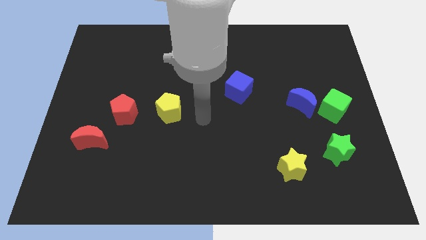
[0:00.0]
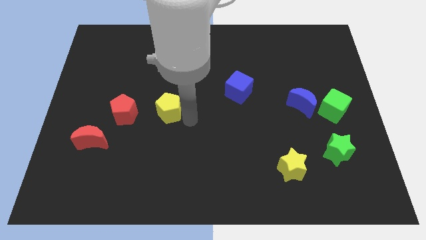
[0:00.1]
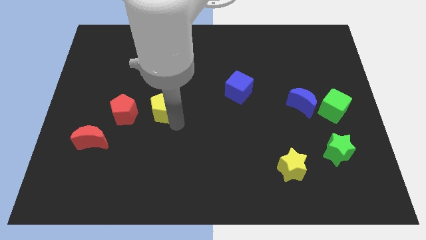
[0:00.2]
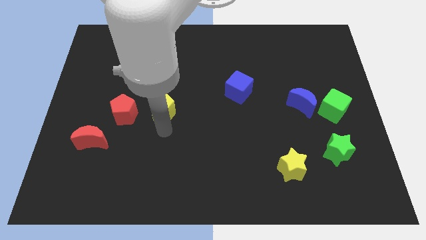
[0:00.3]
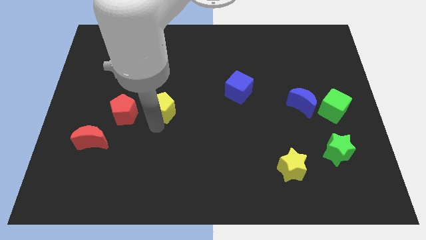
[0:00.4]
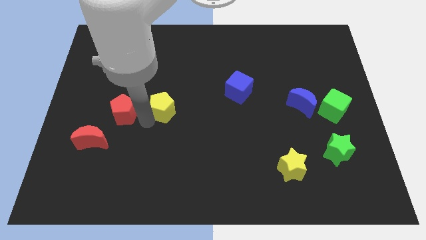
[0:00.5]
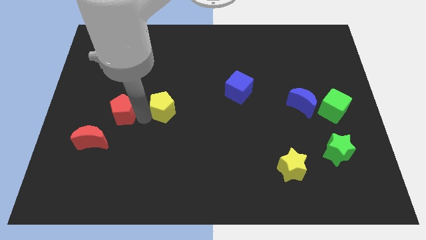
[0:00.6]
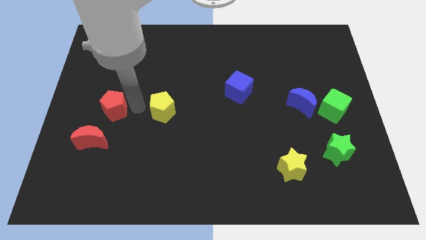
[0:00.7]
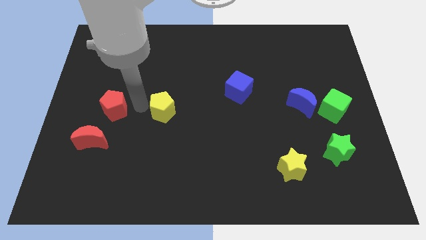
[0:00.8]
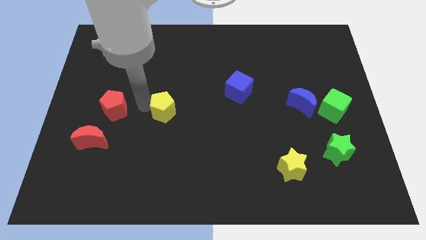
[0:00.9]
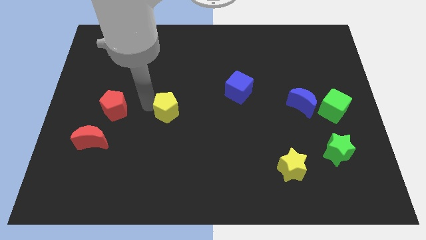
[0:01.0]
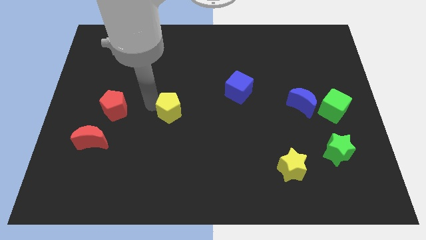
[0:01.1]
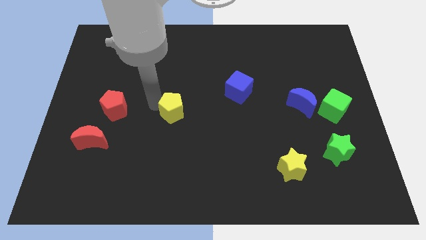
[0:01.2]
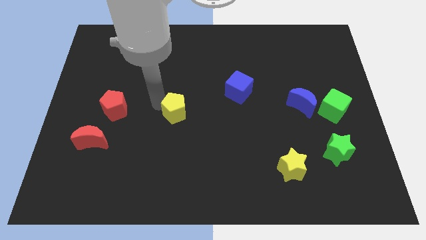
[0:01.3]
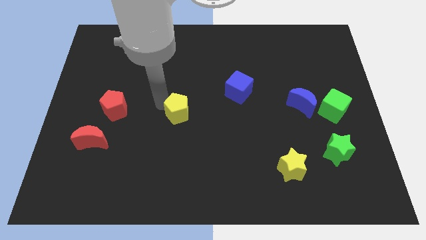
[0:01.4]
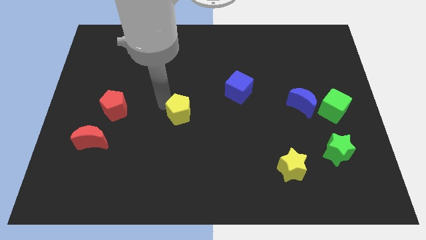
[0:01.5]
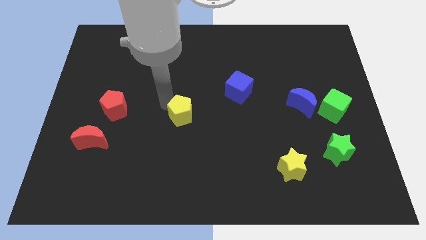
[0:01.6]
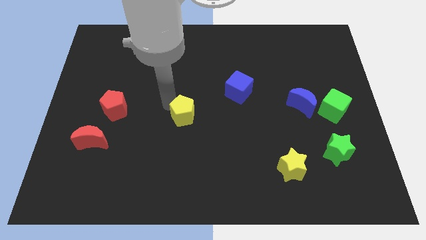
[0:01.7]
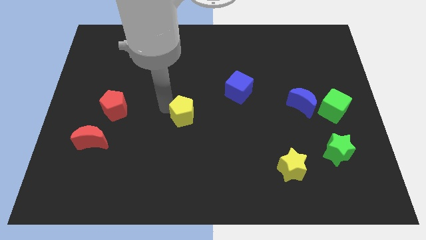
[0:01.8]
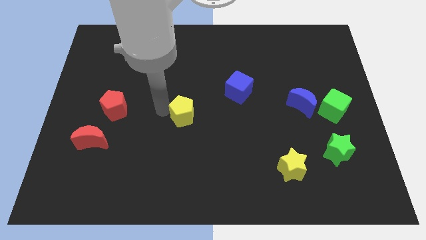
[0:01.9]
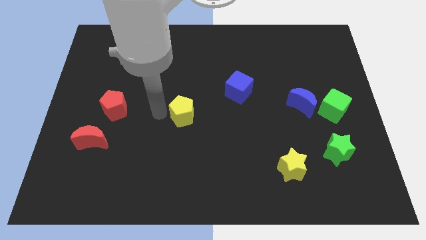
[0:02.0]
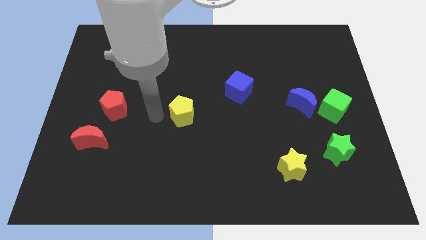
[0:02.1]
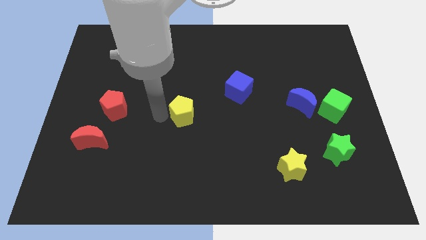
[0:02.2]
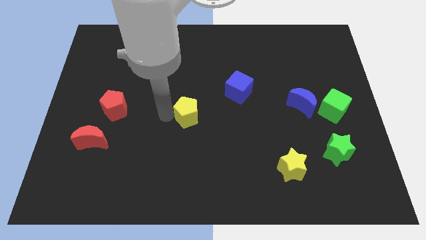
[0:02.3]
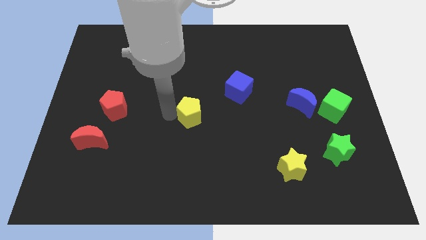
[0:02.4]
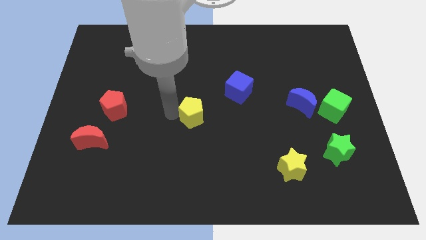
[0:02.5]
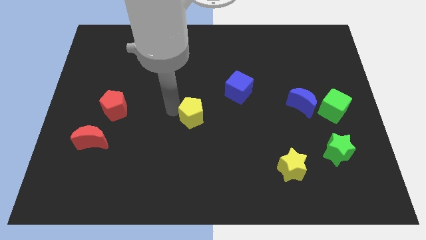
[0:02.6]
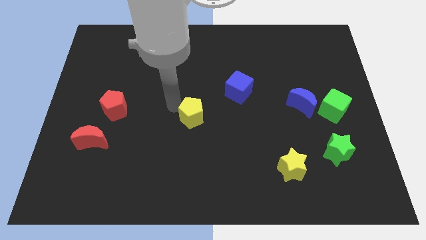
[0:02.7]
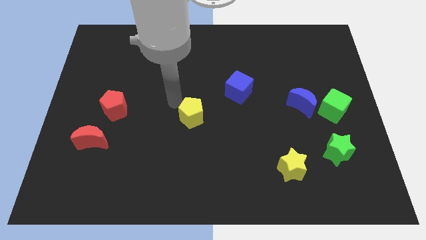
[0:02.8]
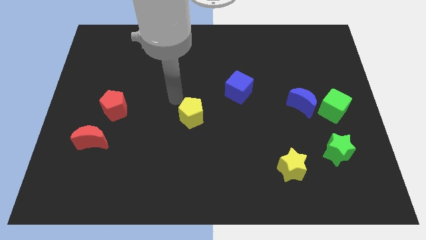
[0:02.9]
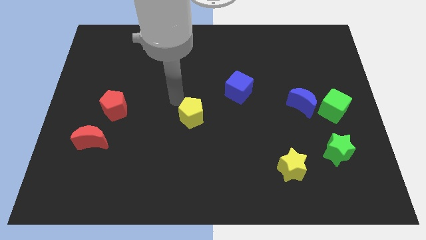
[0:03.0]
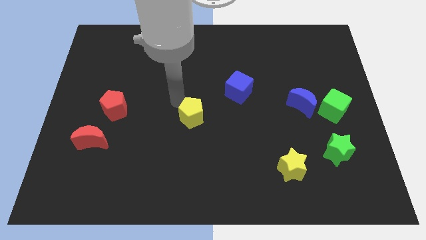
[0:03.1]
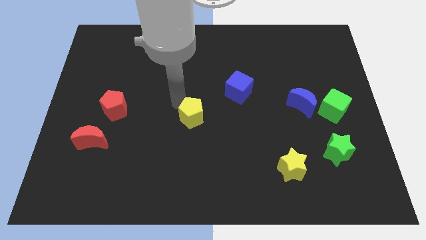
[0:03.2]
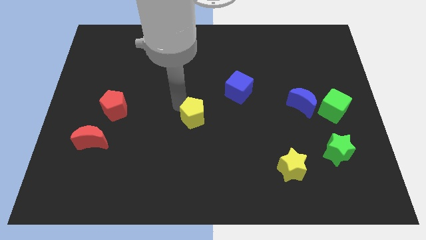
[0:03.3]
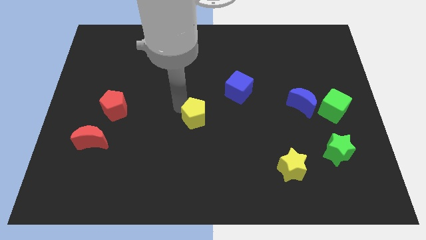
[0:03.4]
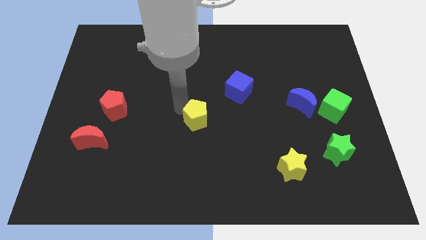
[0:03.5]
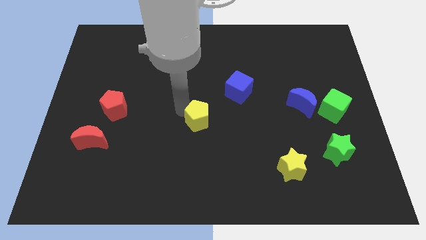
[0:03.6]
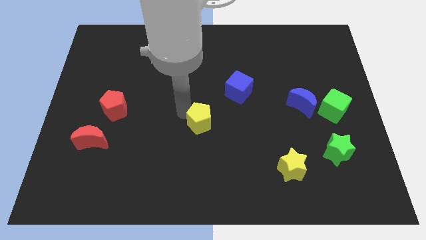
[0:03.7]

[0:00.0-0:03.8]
slightly slide the yellow pentagon down and right diagonally

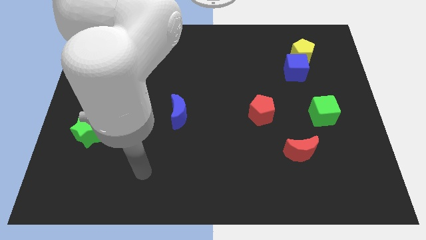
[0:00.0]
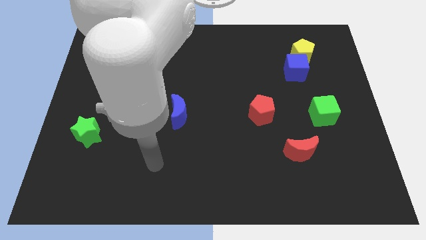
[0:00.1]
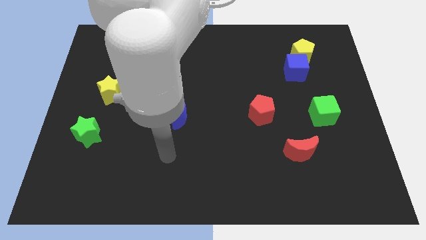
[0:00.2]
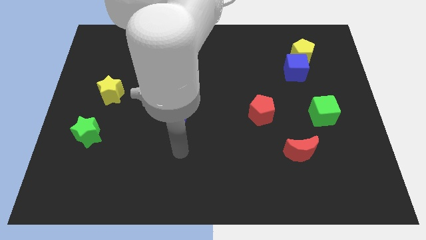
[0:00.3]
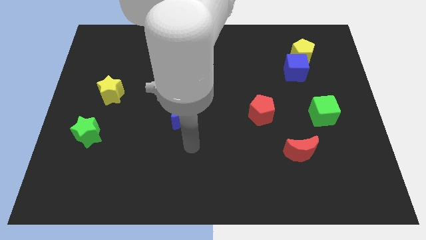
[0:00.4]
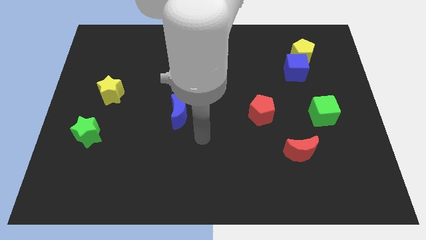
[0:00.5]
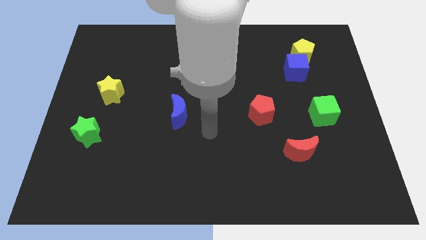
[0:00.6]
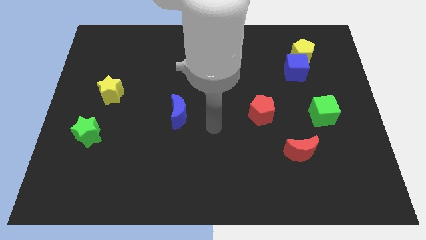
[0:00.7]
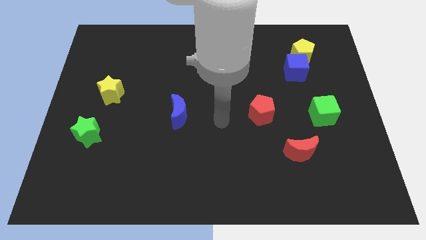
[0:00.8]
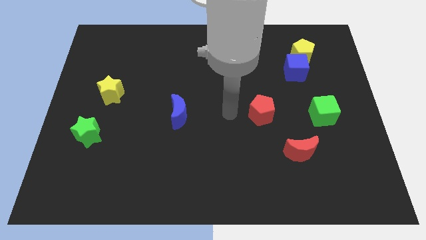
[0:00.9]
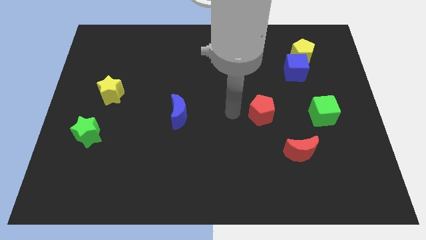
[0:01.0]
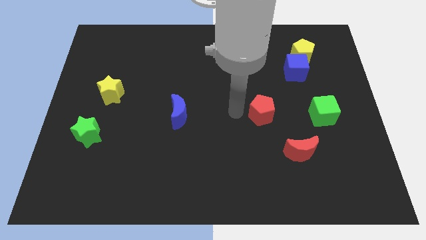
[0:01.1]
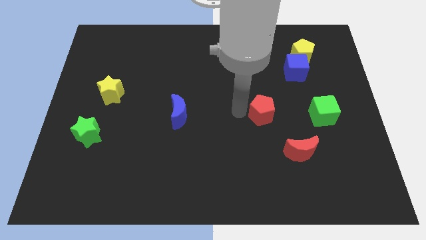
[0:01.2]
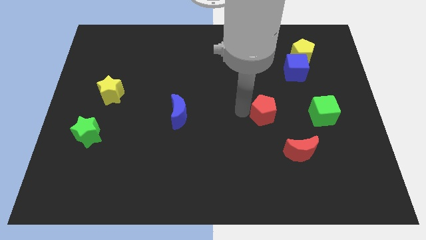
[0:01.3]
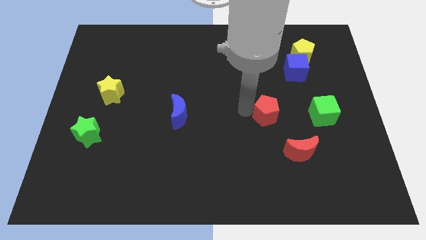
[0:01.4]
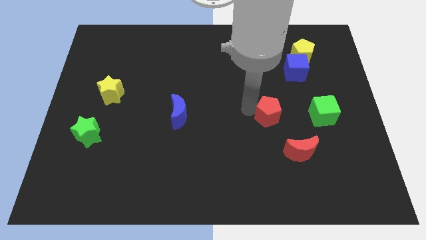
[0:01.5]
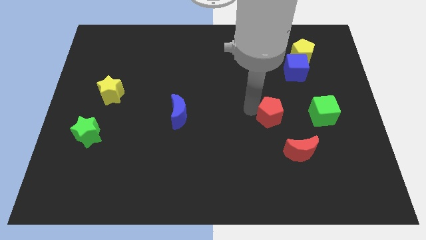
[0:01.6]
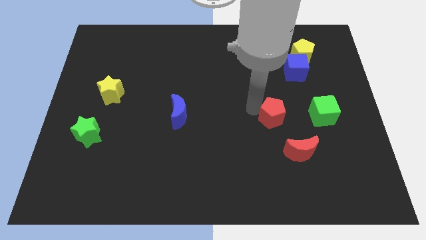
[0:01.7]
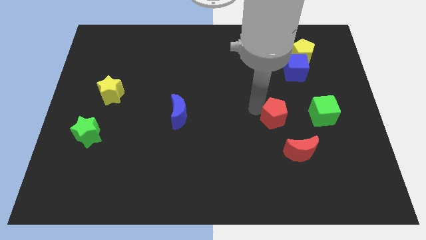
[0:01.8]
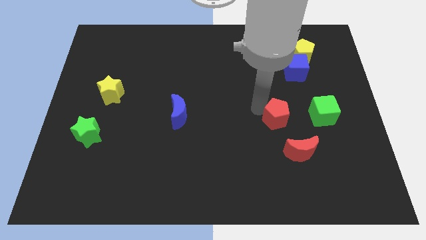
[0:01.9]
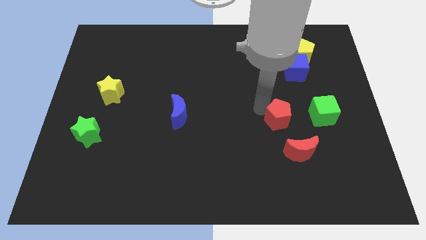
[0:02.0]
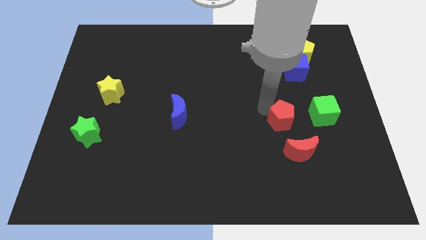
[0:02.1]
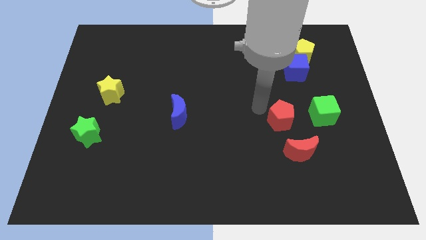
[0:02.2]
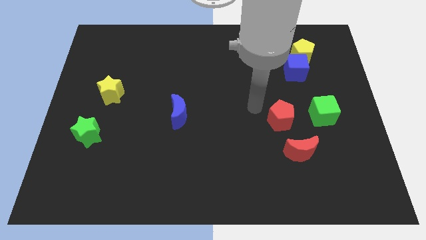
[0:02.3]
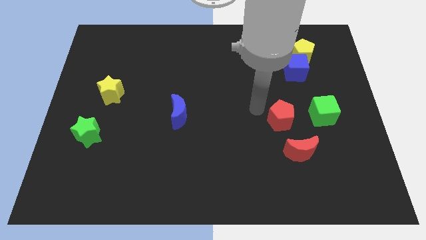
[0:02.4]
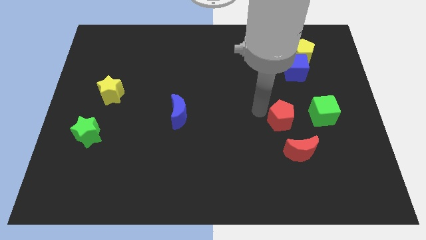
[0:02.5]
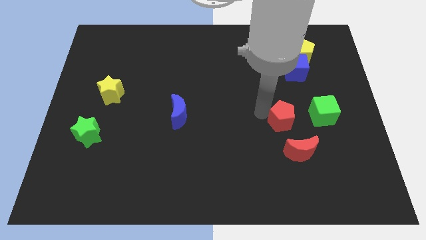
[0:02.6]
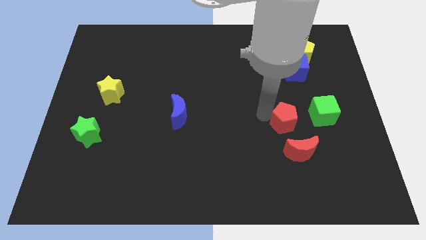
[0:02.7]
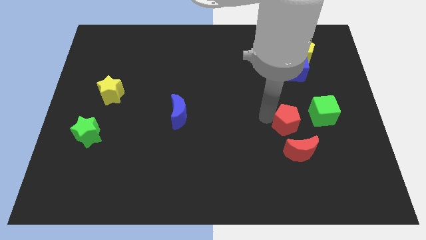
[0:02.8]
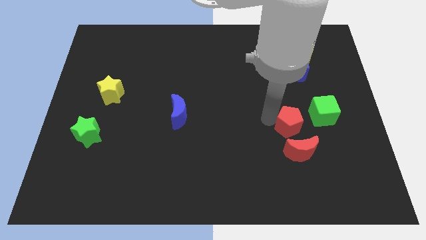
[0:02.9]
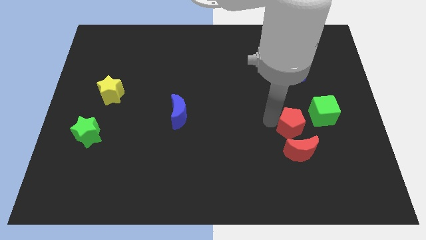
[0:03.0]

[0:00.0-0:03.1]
slide the red pentagon slightly diagonally downwards and right

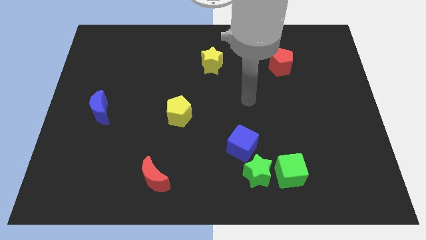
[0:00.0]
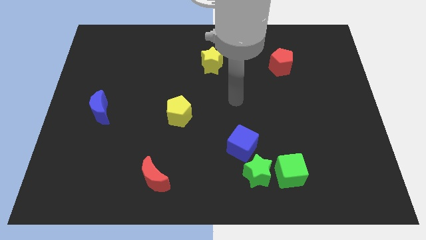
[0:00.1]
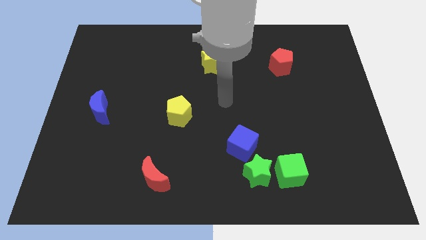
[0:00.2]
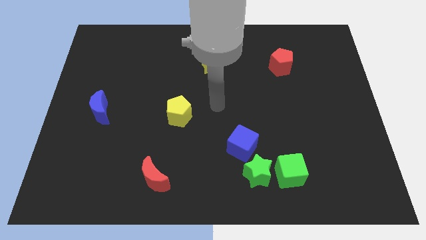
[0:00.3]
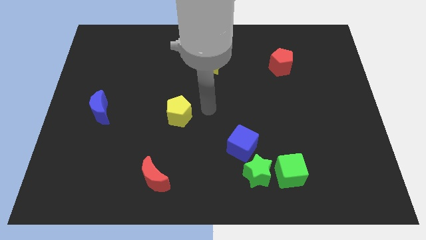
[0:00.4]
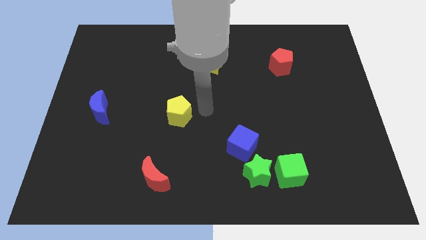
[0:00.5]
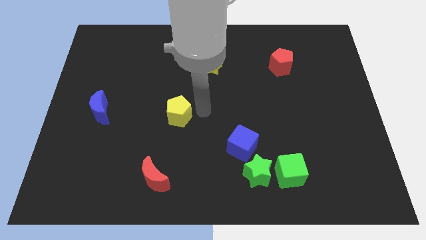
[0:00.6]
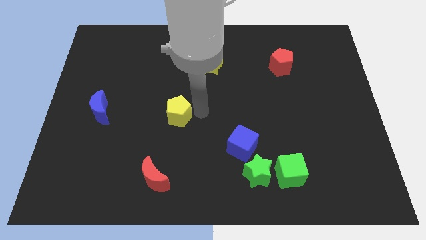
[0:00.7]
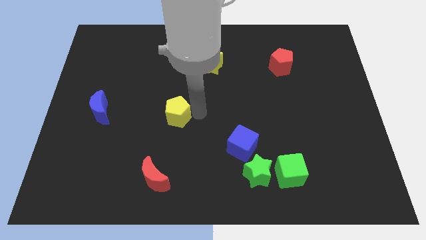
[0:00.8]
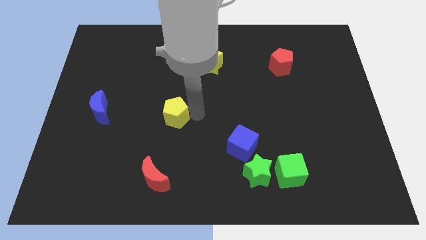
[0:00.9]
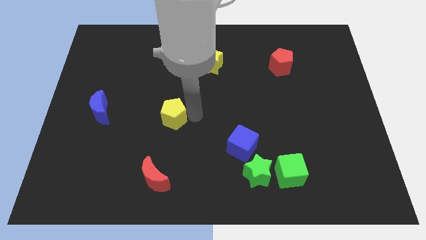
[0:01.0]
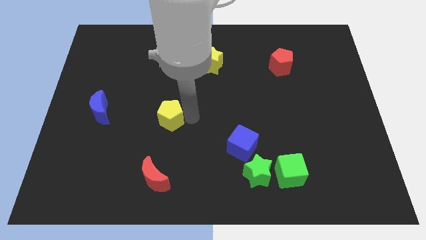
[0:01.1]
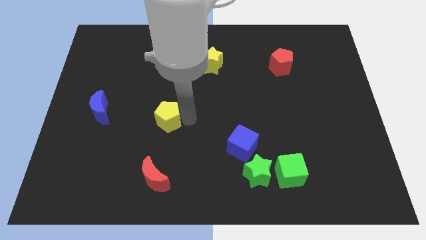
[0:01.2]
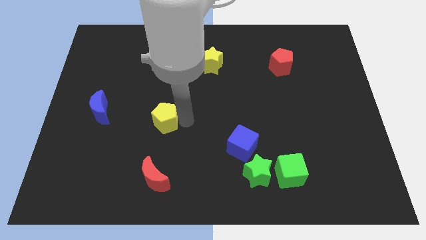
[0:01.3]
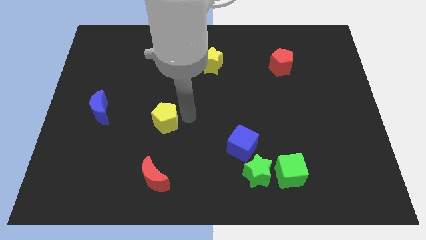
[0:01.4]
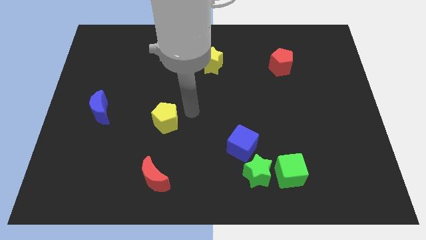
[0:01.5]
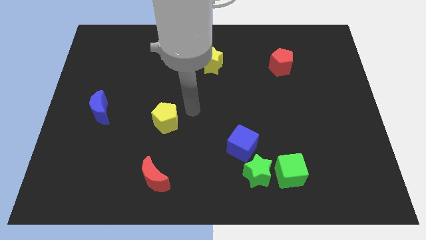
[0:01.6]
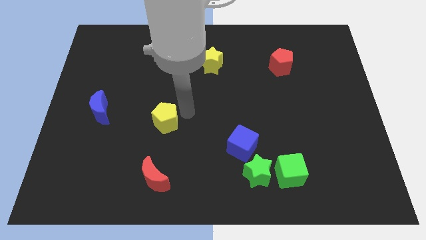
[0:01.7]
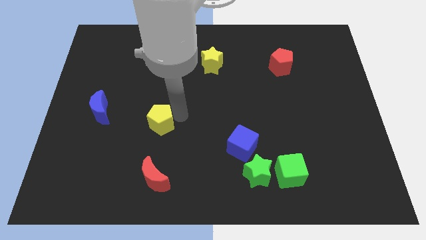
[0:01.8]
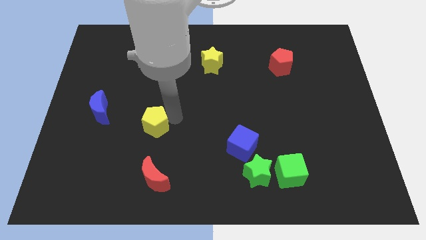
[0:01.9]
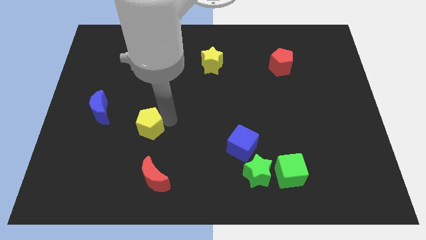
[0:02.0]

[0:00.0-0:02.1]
slightly slide the yellow pentagon downwards and to the left
